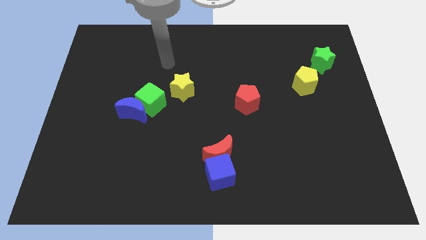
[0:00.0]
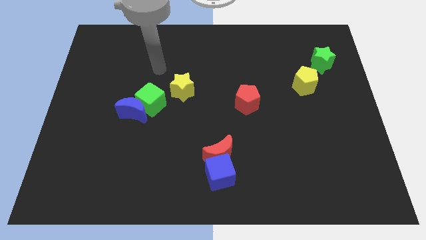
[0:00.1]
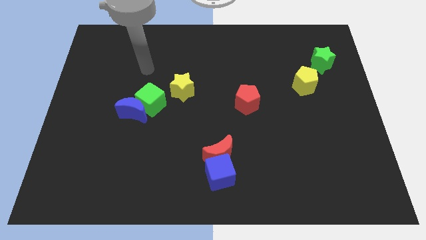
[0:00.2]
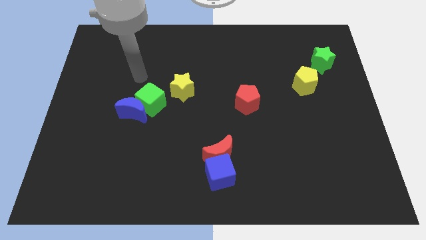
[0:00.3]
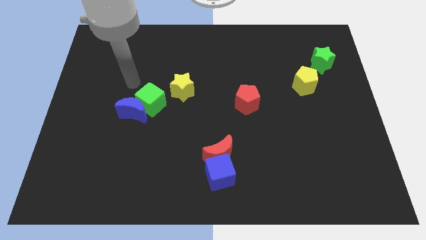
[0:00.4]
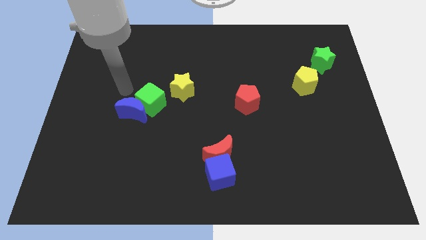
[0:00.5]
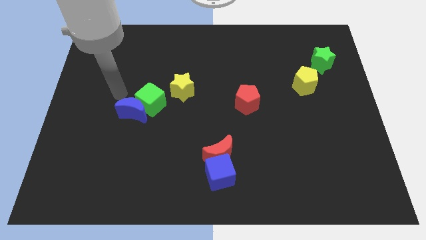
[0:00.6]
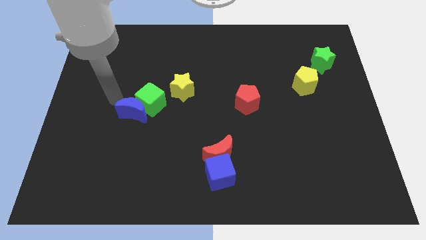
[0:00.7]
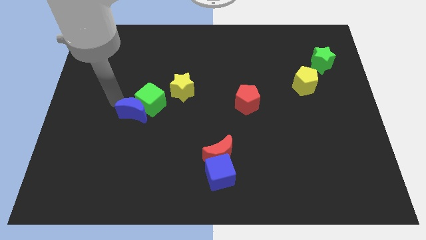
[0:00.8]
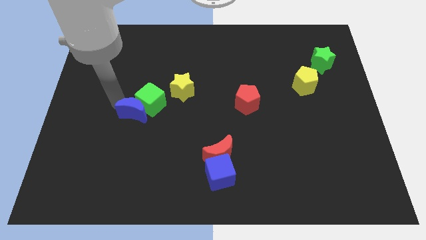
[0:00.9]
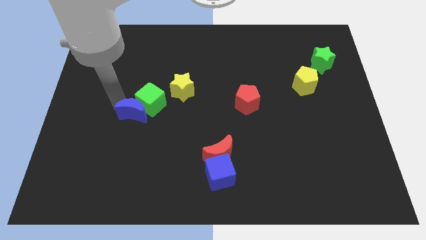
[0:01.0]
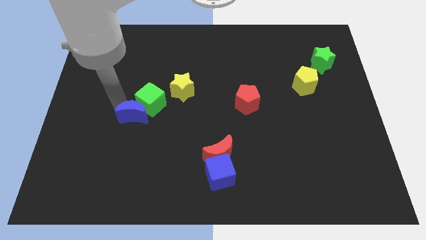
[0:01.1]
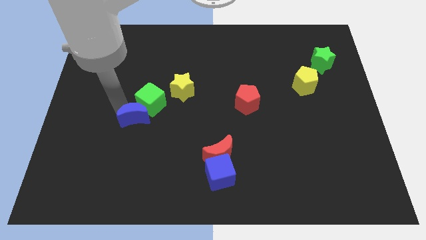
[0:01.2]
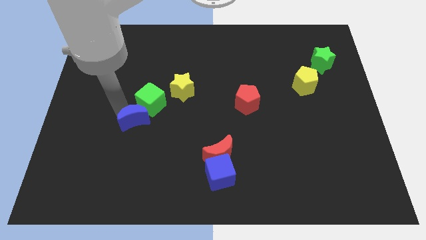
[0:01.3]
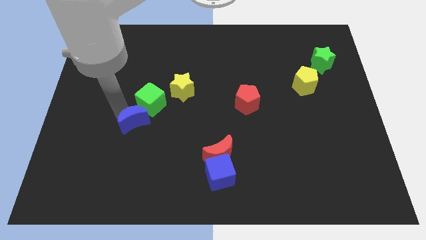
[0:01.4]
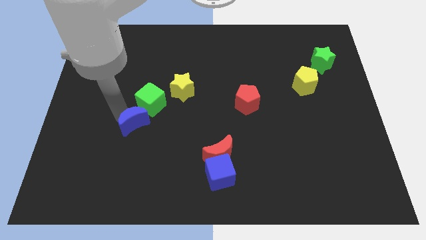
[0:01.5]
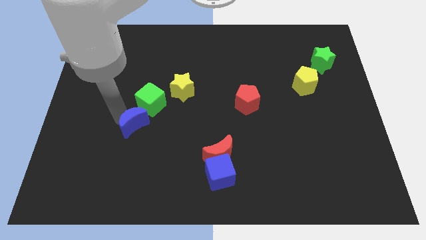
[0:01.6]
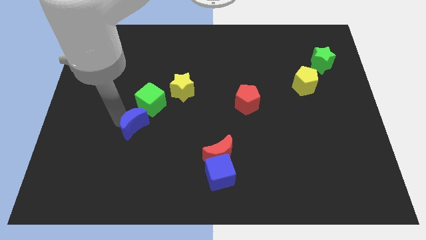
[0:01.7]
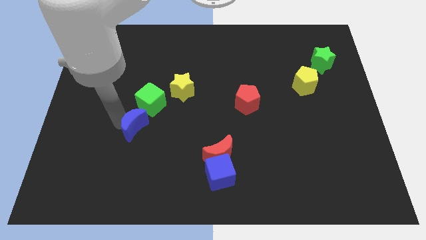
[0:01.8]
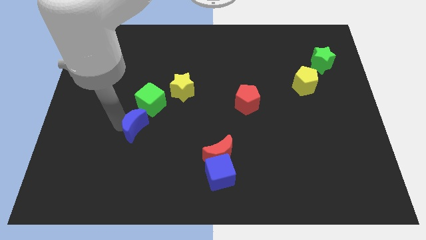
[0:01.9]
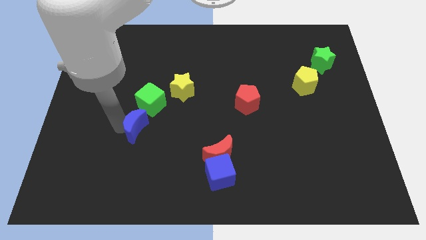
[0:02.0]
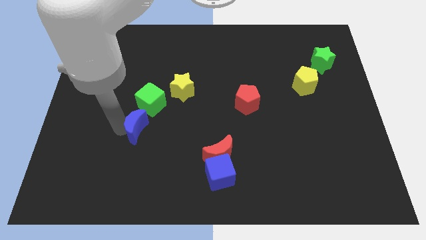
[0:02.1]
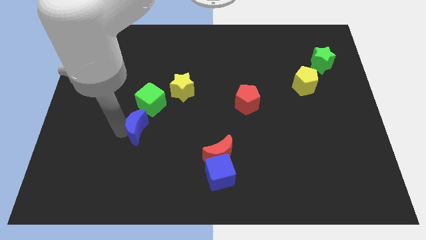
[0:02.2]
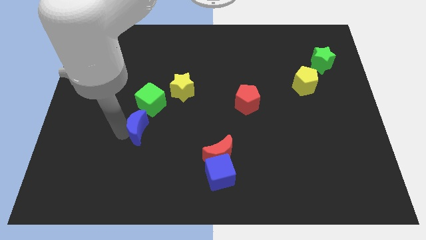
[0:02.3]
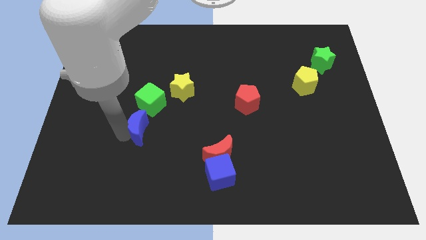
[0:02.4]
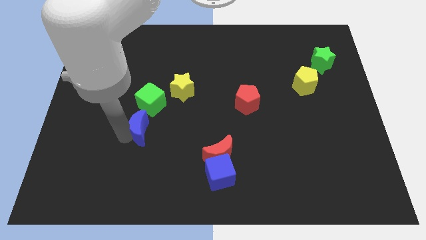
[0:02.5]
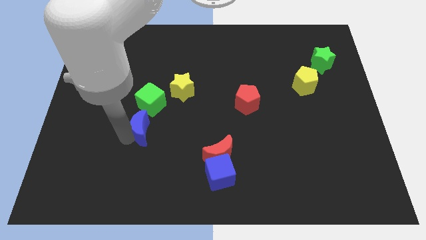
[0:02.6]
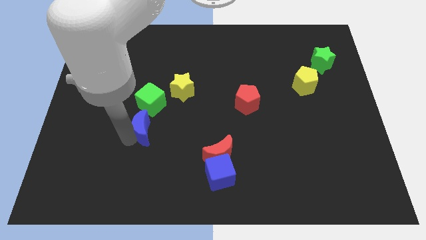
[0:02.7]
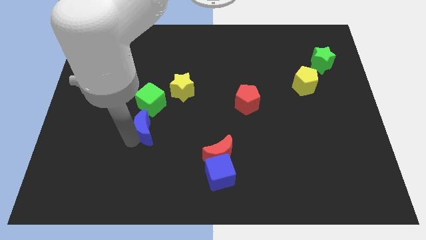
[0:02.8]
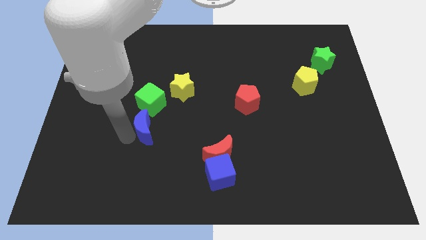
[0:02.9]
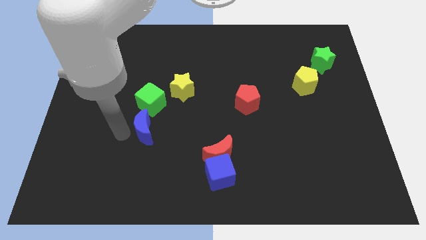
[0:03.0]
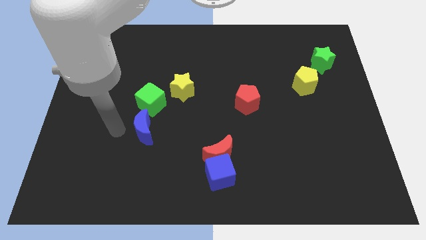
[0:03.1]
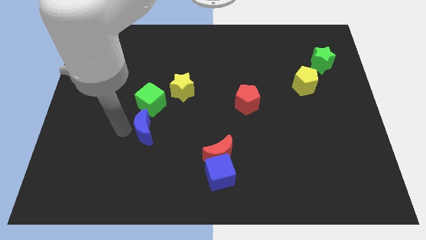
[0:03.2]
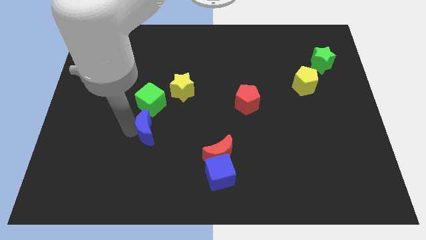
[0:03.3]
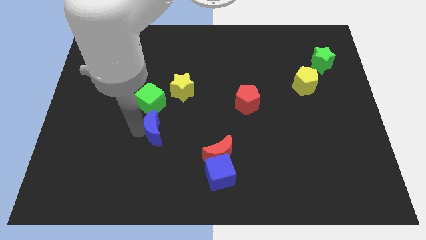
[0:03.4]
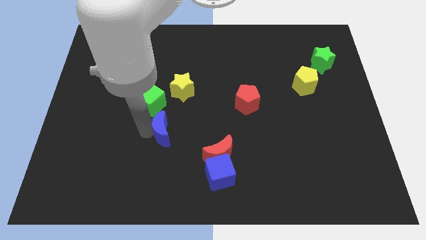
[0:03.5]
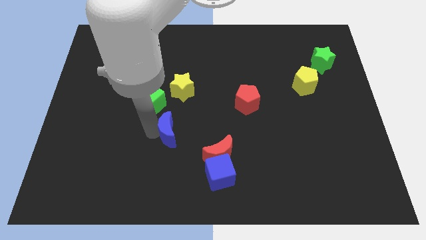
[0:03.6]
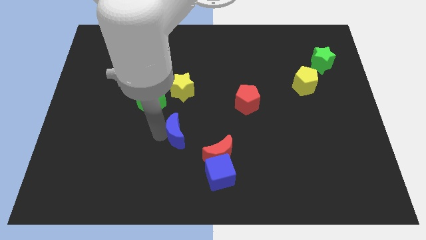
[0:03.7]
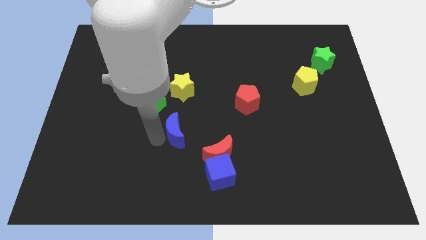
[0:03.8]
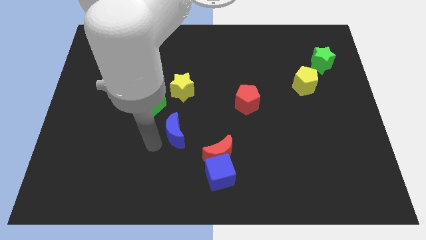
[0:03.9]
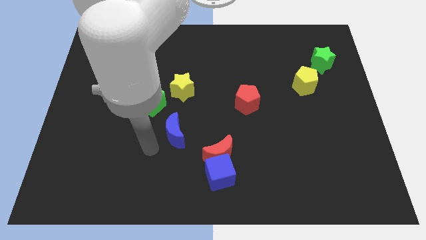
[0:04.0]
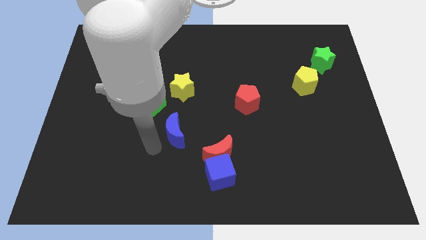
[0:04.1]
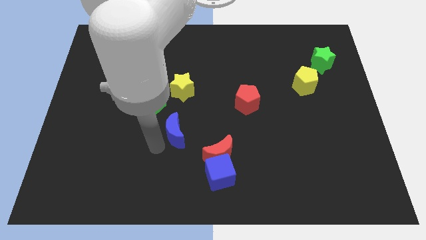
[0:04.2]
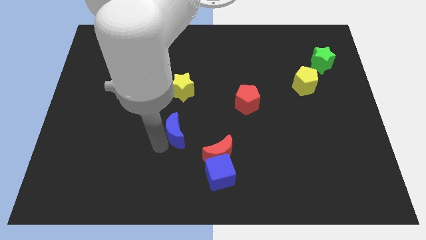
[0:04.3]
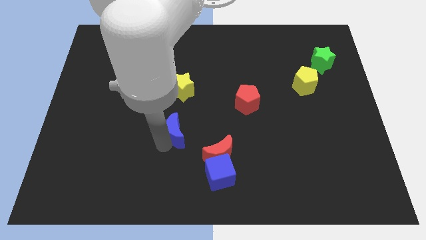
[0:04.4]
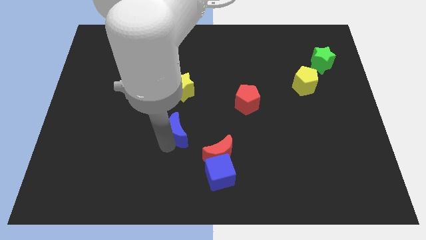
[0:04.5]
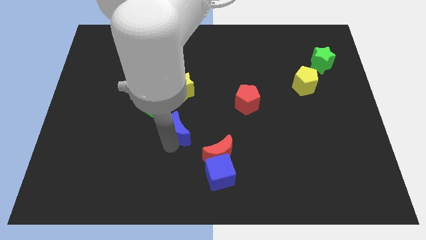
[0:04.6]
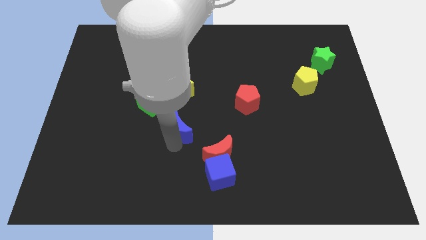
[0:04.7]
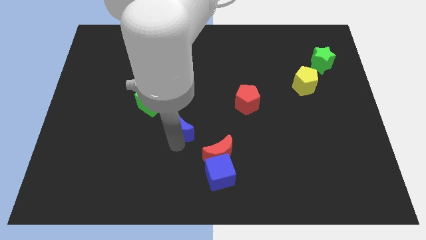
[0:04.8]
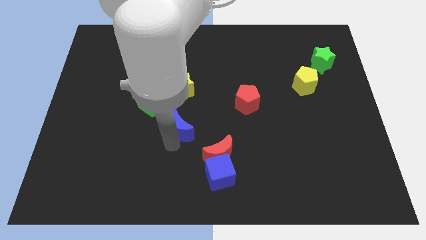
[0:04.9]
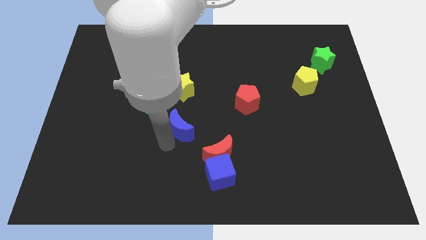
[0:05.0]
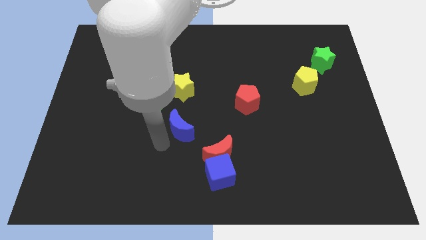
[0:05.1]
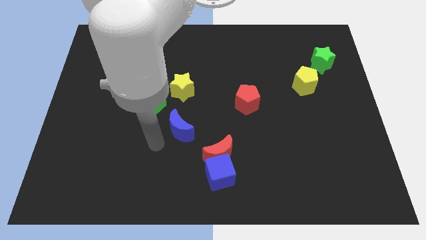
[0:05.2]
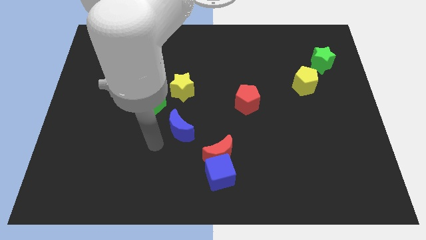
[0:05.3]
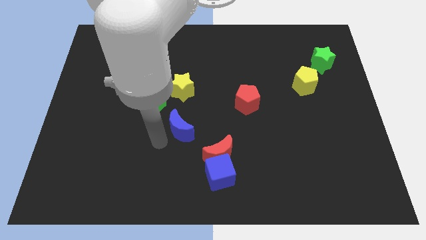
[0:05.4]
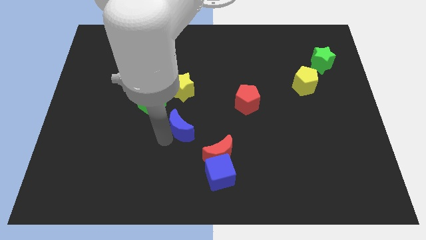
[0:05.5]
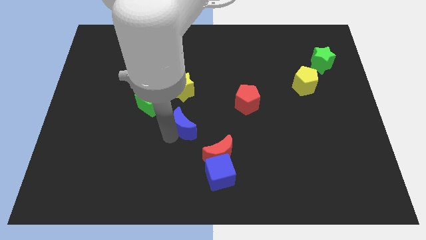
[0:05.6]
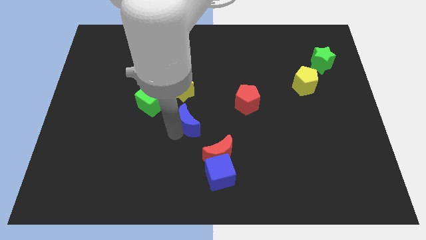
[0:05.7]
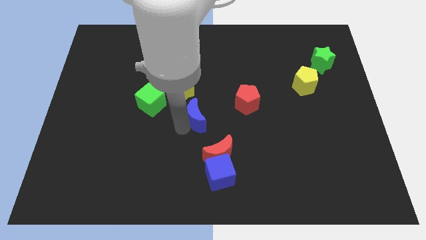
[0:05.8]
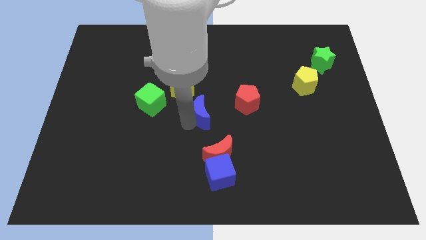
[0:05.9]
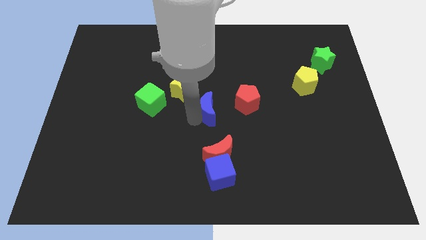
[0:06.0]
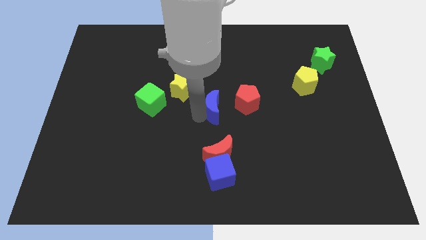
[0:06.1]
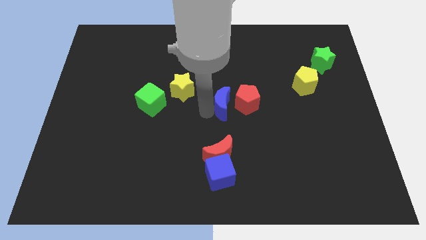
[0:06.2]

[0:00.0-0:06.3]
slide the blue moon close to the red pentagon

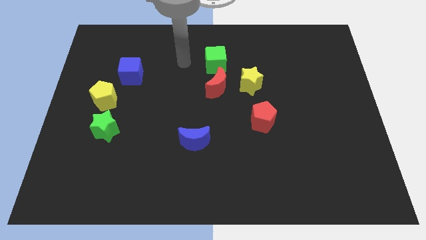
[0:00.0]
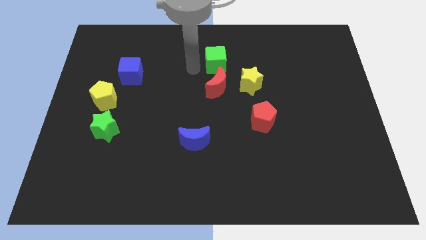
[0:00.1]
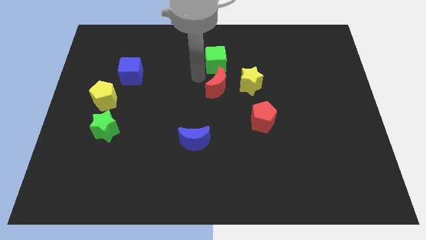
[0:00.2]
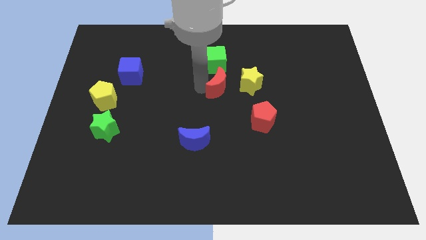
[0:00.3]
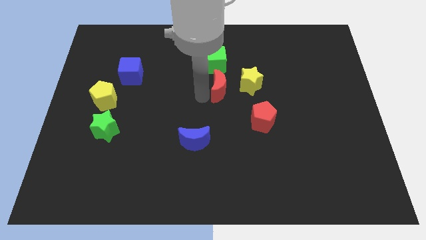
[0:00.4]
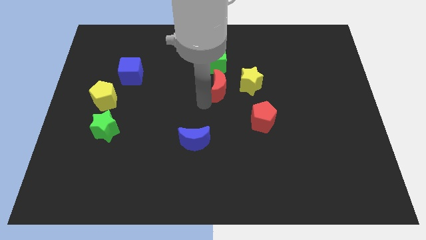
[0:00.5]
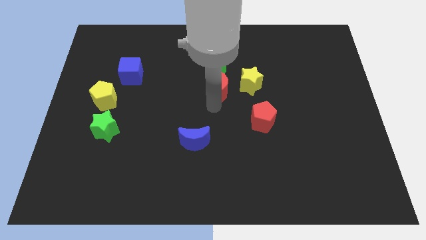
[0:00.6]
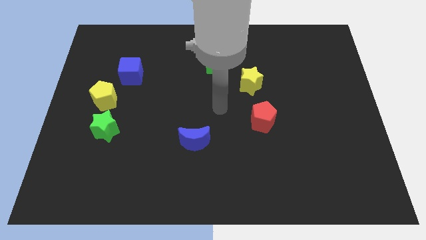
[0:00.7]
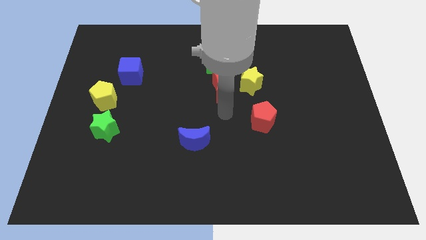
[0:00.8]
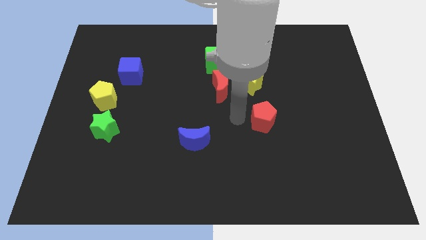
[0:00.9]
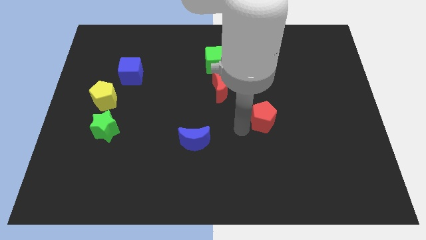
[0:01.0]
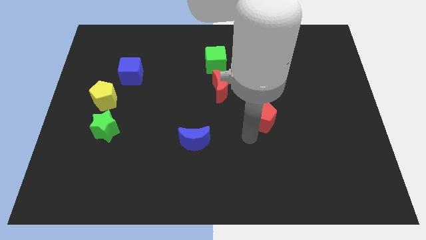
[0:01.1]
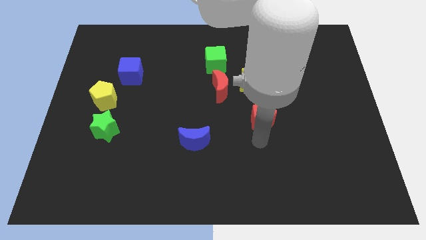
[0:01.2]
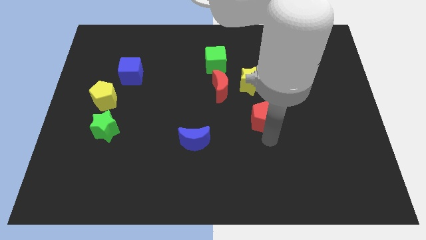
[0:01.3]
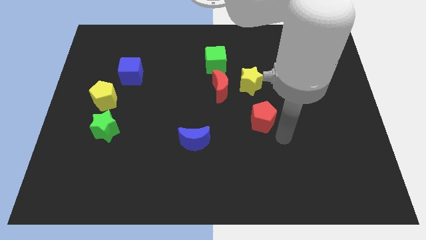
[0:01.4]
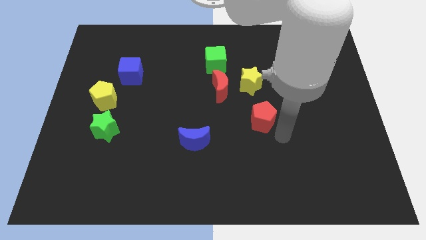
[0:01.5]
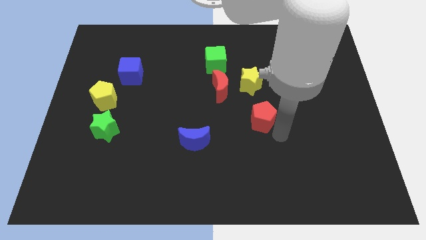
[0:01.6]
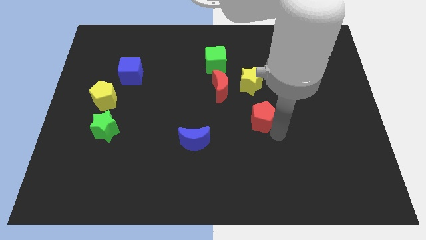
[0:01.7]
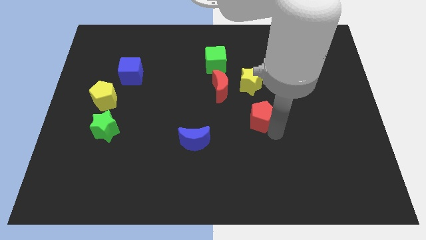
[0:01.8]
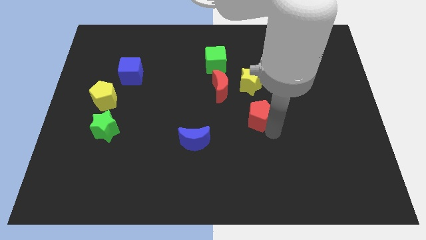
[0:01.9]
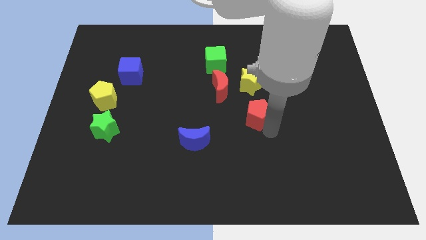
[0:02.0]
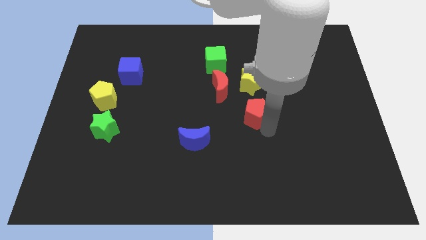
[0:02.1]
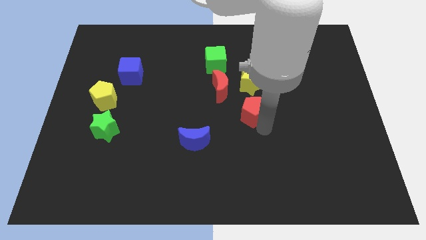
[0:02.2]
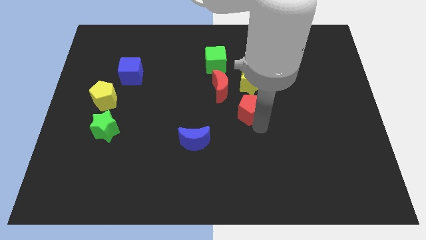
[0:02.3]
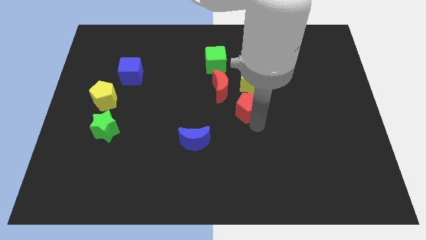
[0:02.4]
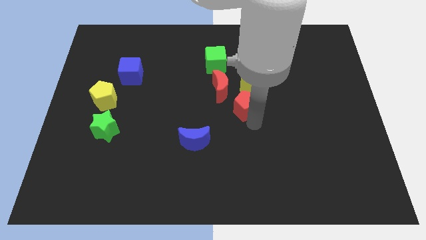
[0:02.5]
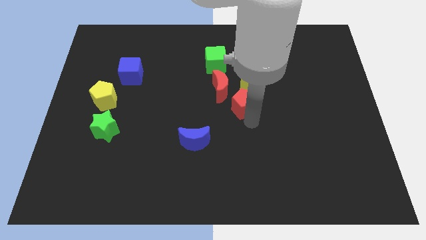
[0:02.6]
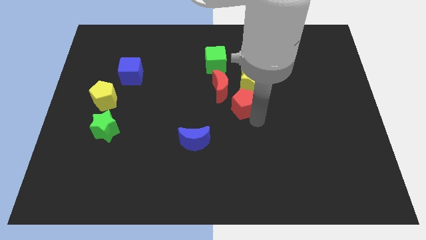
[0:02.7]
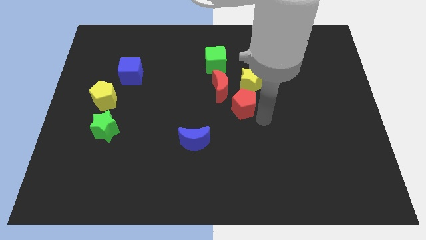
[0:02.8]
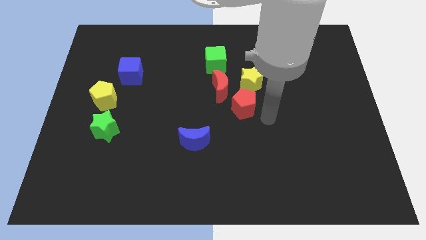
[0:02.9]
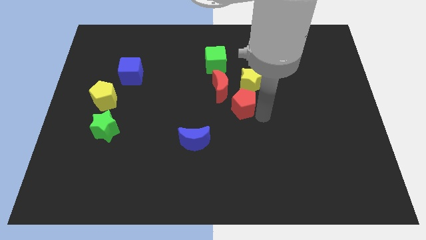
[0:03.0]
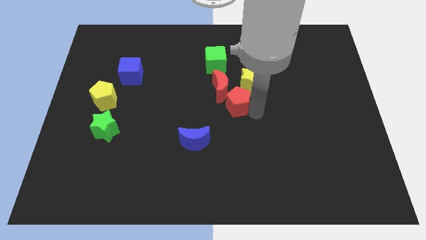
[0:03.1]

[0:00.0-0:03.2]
slide the red pentagon towards the red moon
